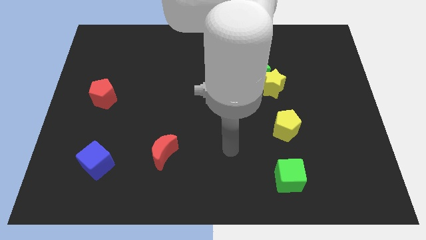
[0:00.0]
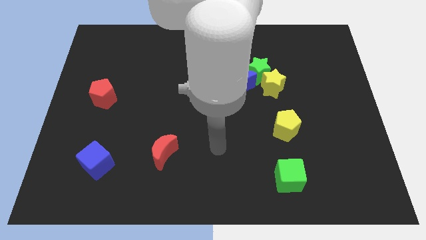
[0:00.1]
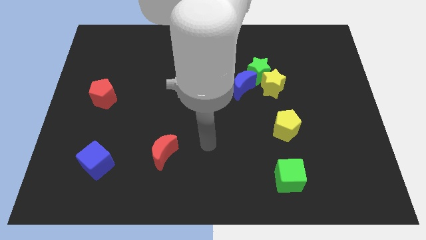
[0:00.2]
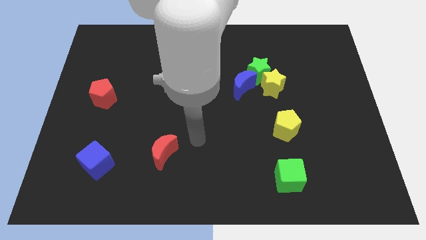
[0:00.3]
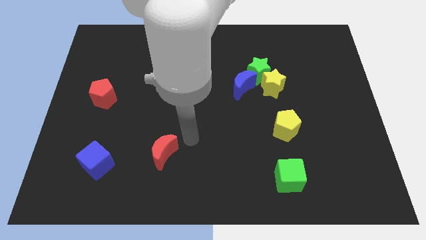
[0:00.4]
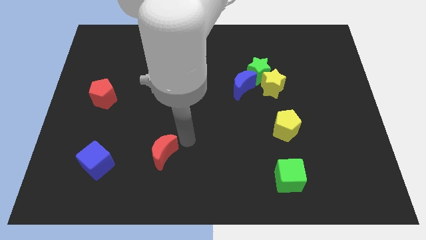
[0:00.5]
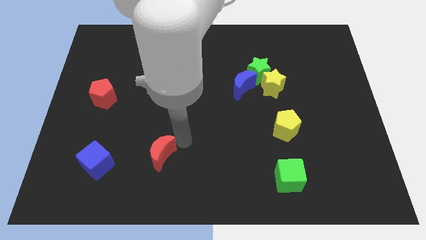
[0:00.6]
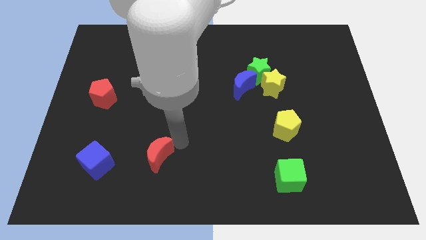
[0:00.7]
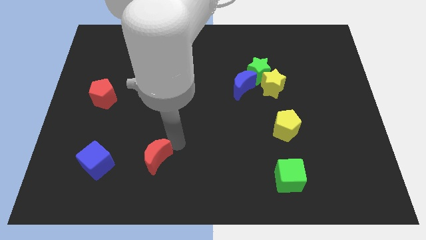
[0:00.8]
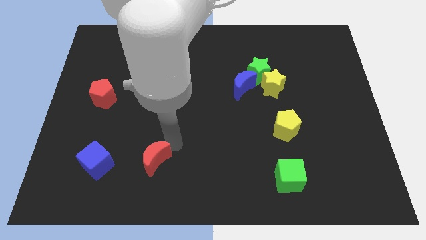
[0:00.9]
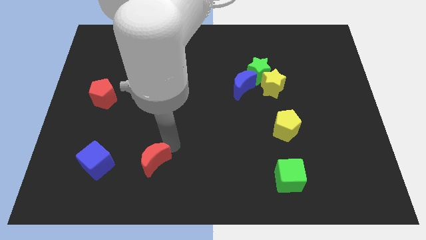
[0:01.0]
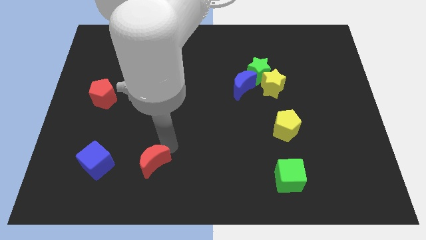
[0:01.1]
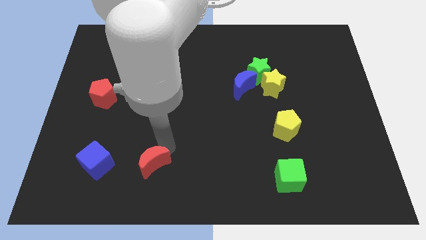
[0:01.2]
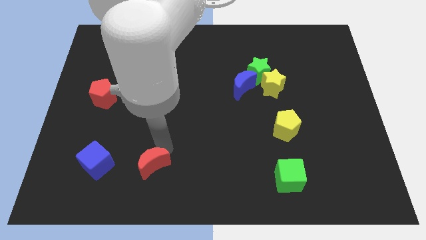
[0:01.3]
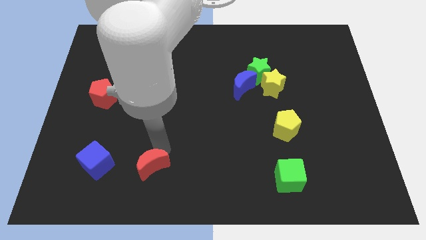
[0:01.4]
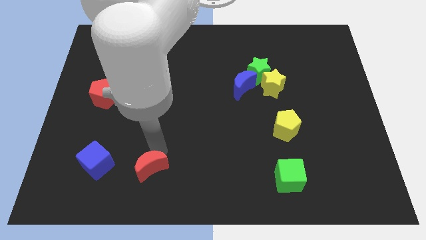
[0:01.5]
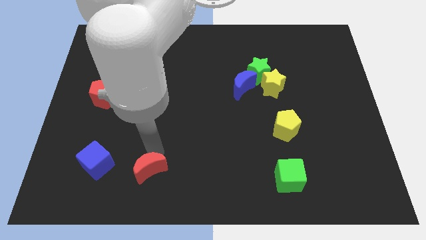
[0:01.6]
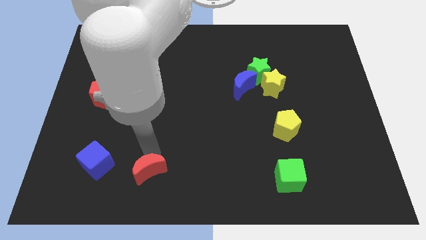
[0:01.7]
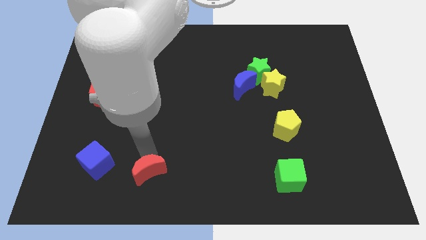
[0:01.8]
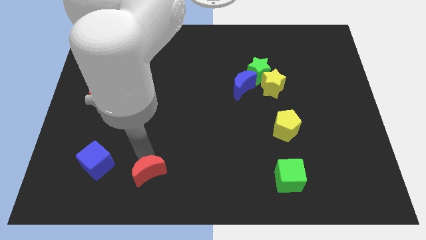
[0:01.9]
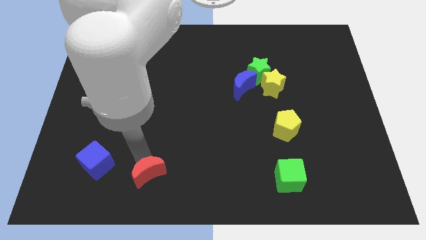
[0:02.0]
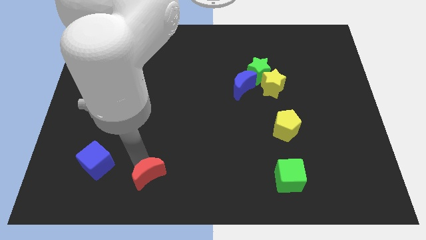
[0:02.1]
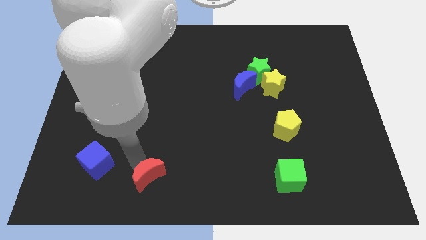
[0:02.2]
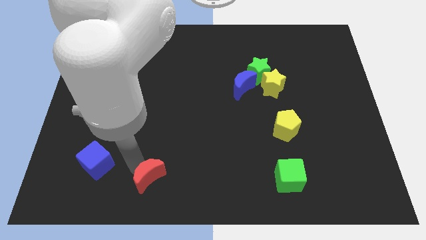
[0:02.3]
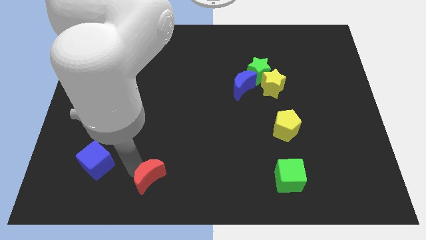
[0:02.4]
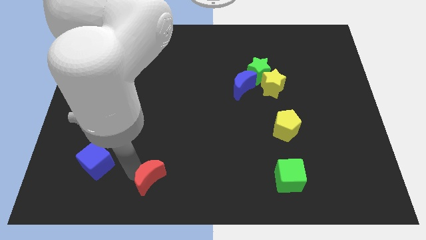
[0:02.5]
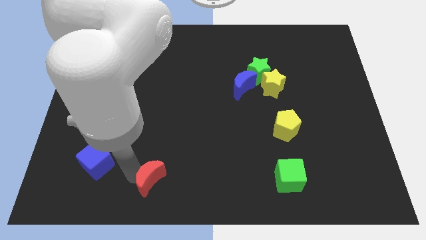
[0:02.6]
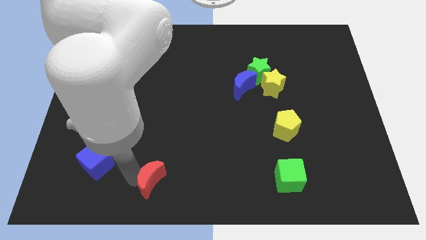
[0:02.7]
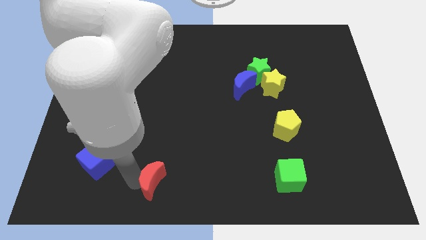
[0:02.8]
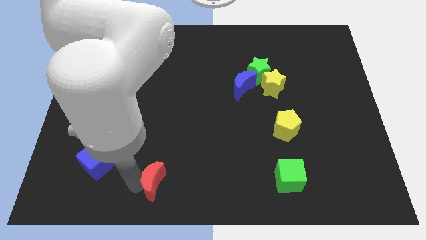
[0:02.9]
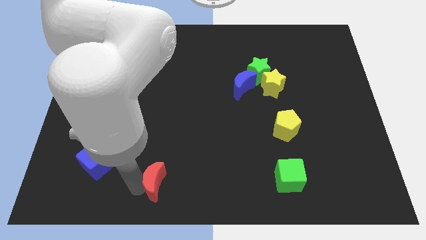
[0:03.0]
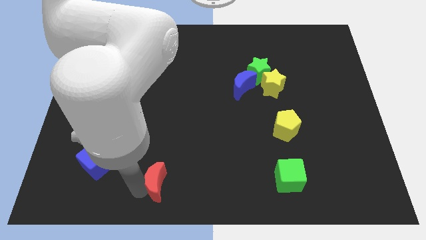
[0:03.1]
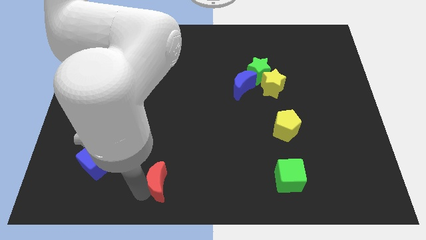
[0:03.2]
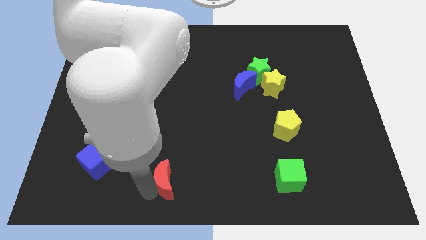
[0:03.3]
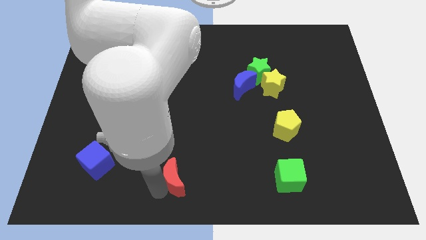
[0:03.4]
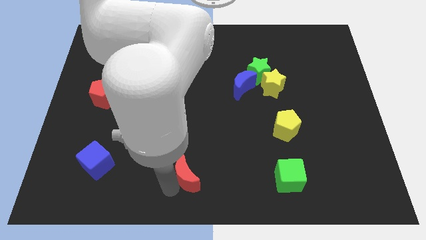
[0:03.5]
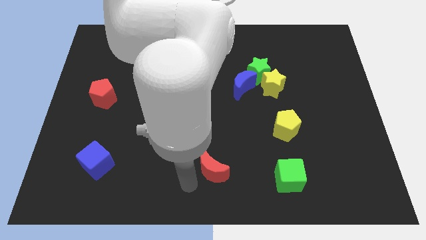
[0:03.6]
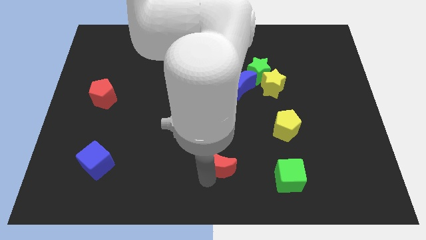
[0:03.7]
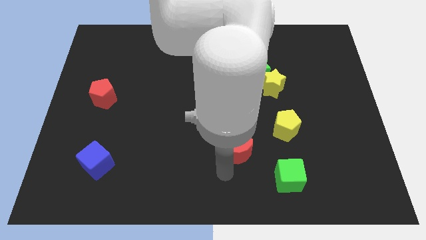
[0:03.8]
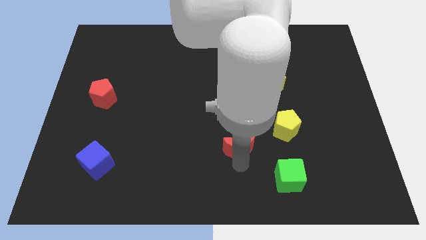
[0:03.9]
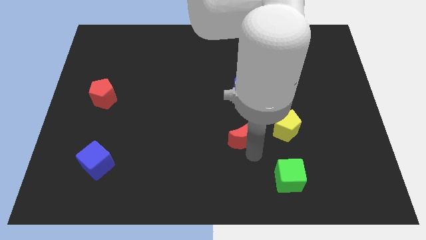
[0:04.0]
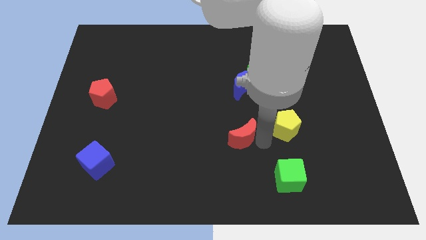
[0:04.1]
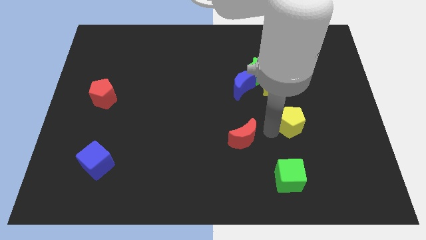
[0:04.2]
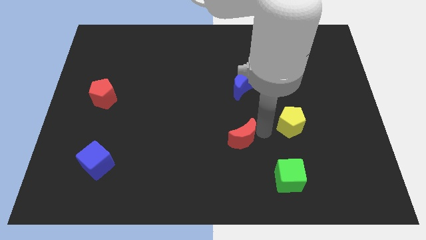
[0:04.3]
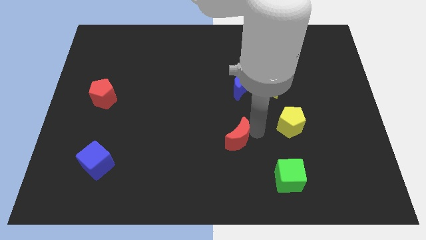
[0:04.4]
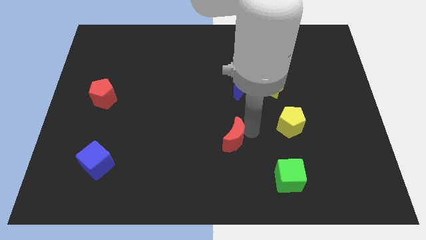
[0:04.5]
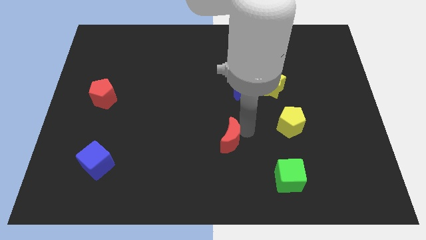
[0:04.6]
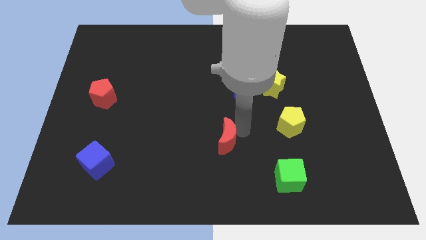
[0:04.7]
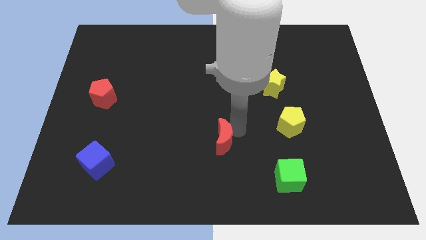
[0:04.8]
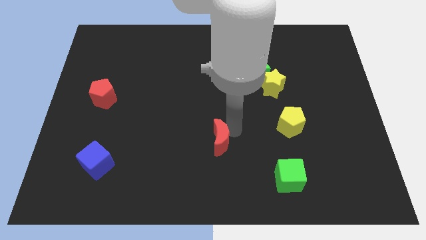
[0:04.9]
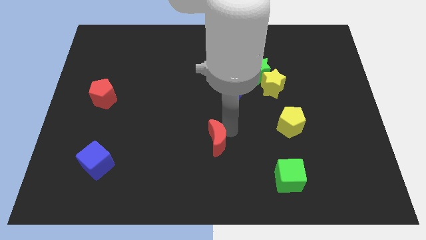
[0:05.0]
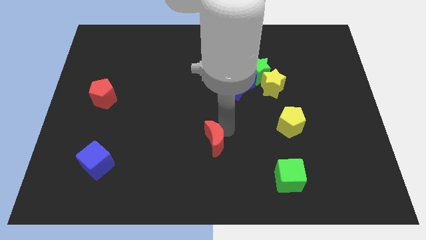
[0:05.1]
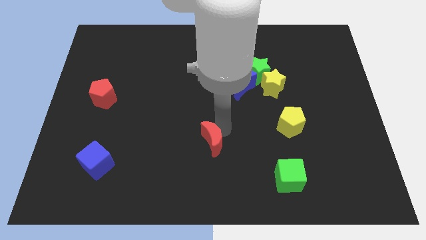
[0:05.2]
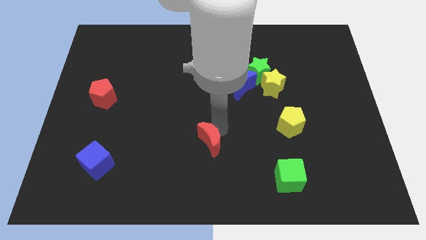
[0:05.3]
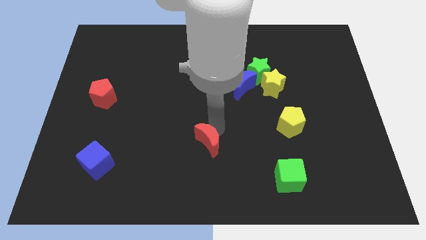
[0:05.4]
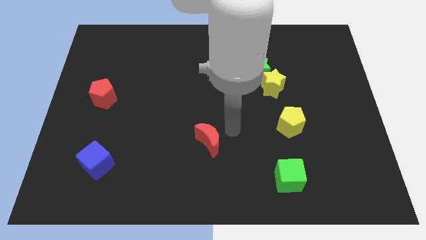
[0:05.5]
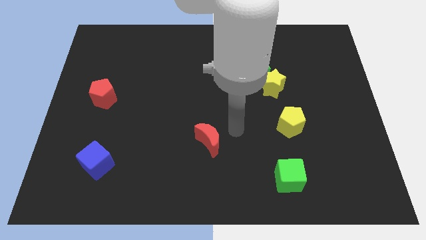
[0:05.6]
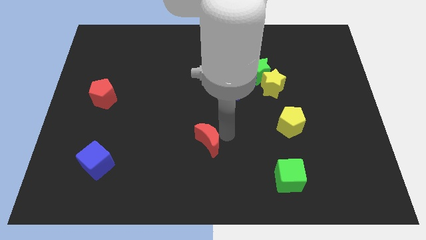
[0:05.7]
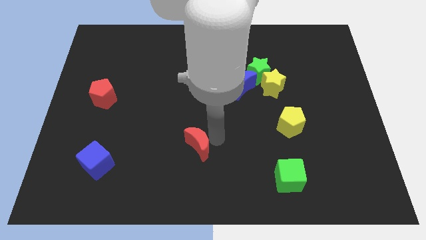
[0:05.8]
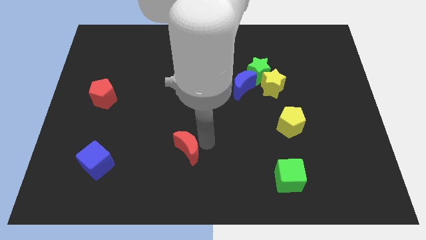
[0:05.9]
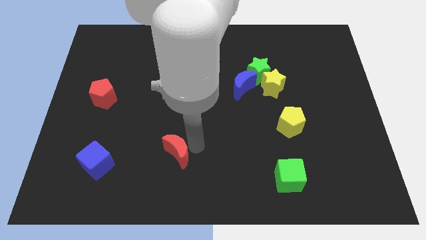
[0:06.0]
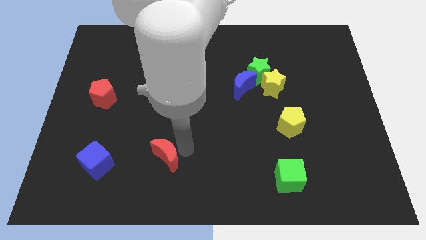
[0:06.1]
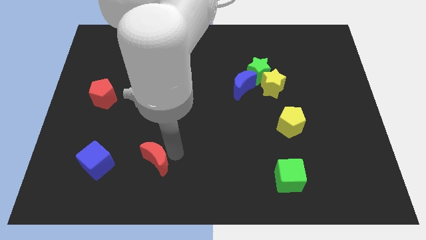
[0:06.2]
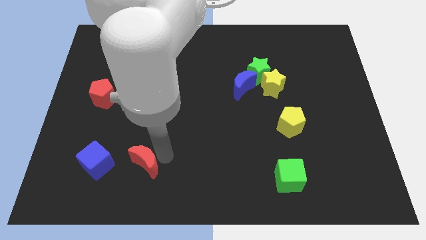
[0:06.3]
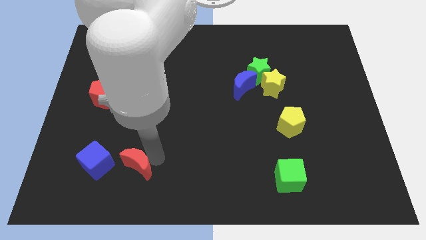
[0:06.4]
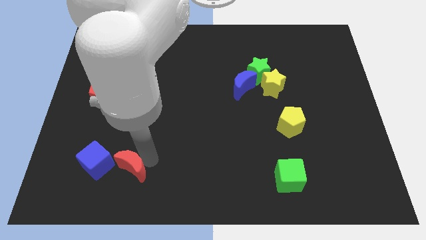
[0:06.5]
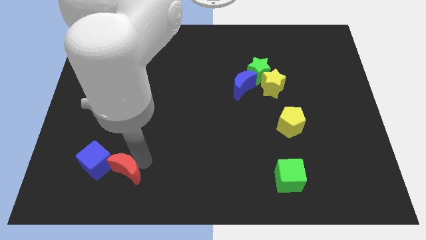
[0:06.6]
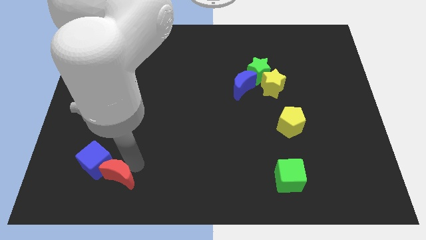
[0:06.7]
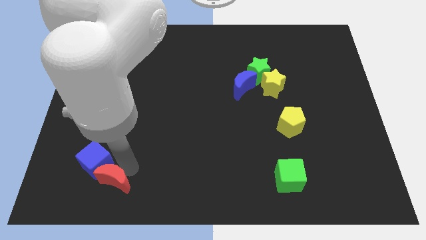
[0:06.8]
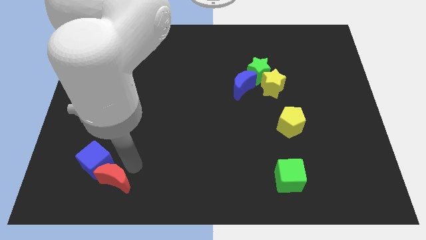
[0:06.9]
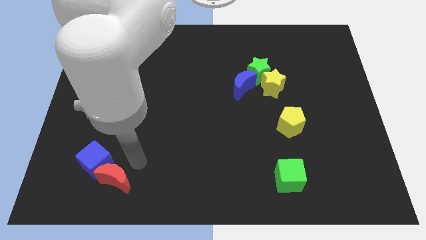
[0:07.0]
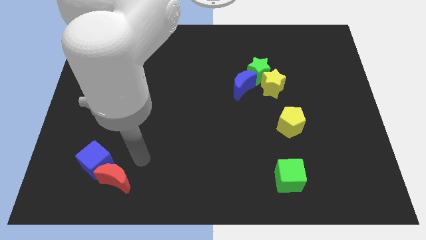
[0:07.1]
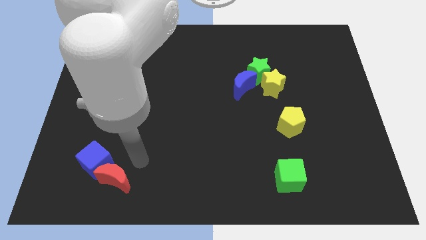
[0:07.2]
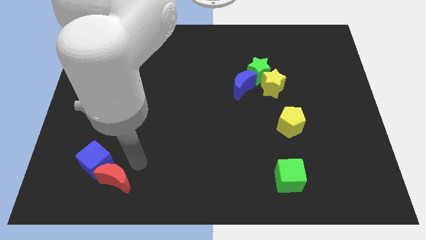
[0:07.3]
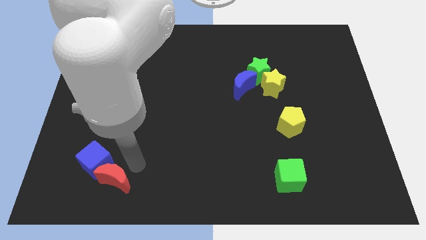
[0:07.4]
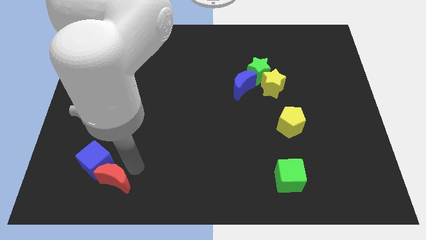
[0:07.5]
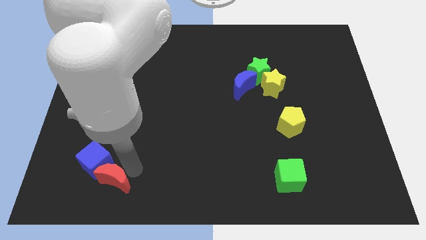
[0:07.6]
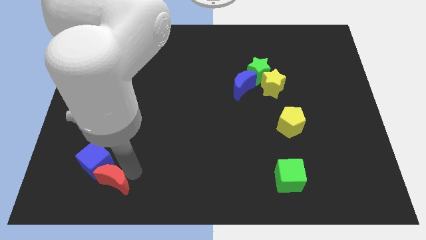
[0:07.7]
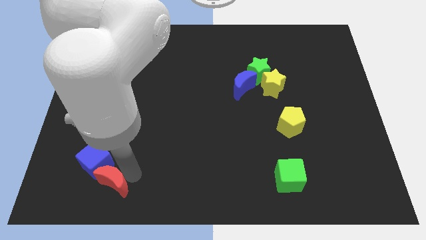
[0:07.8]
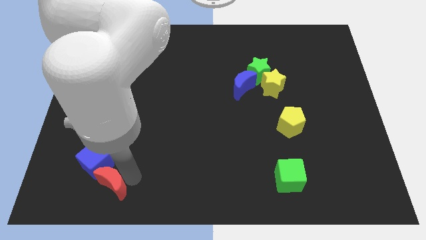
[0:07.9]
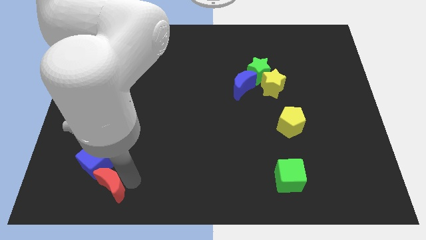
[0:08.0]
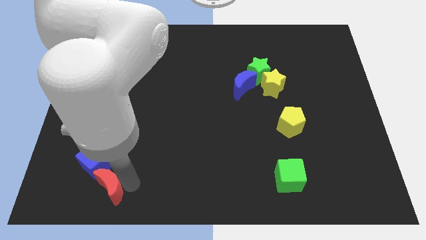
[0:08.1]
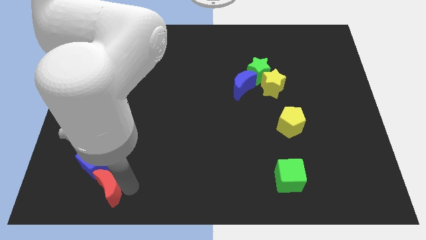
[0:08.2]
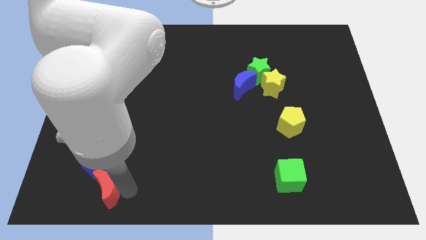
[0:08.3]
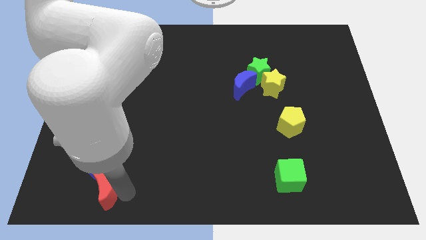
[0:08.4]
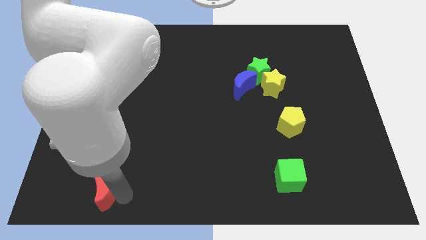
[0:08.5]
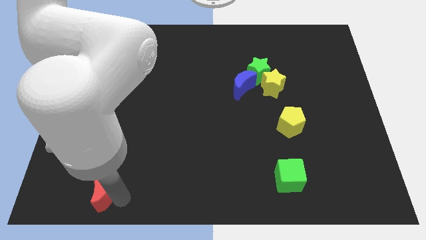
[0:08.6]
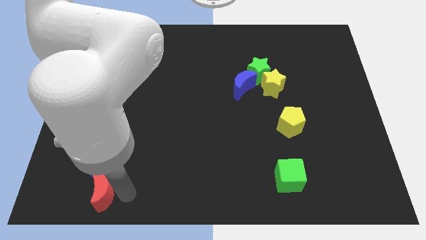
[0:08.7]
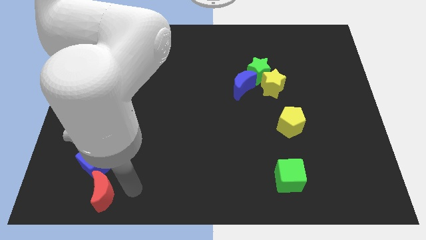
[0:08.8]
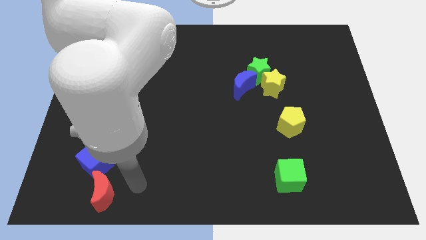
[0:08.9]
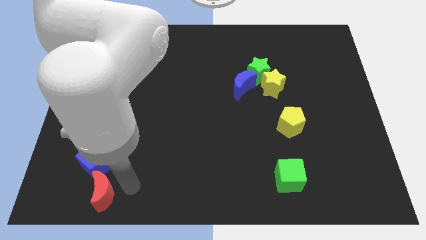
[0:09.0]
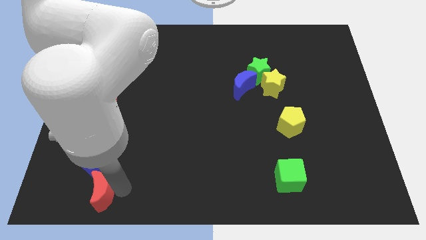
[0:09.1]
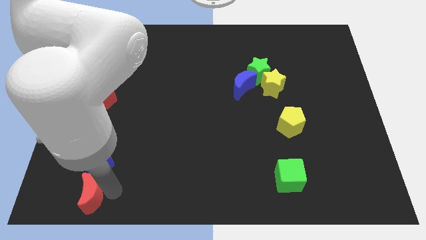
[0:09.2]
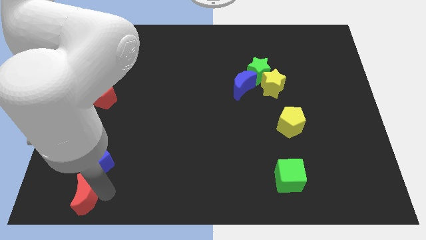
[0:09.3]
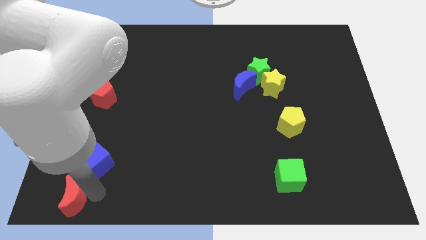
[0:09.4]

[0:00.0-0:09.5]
push the red moon to the lower left corner
